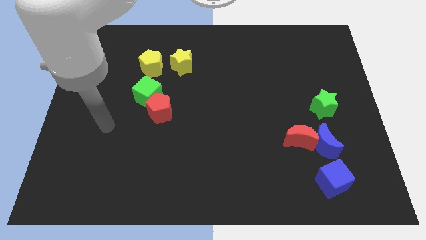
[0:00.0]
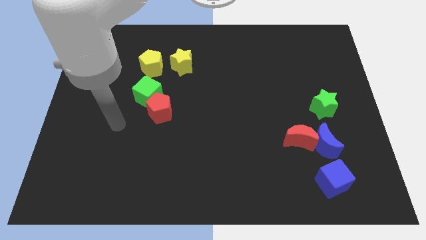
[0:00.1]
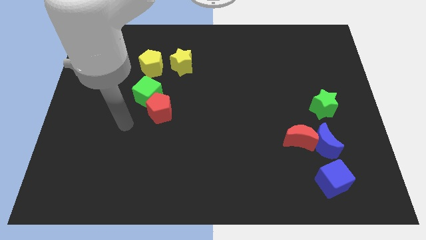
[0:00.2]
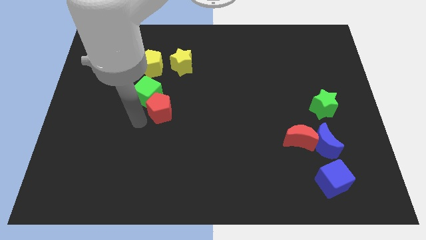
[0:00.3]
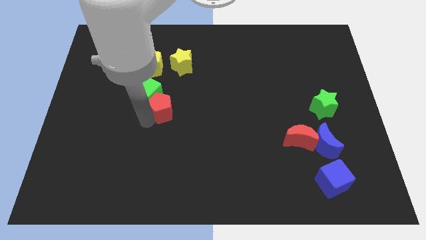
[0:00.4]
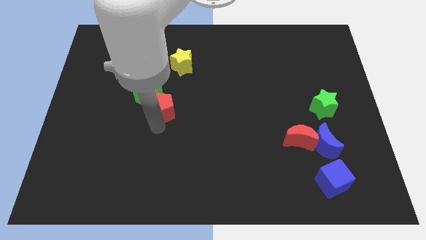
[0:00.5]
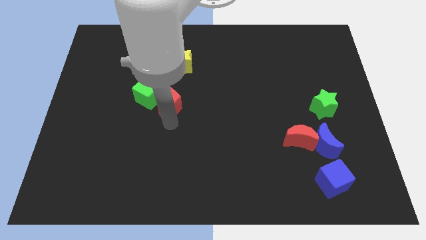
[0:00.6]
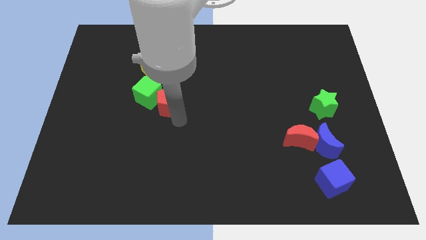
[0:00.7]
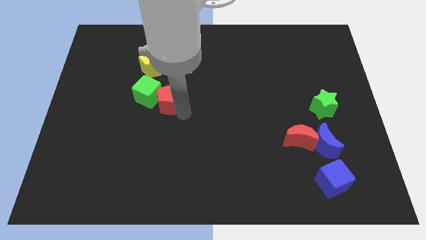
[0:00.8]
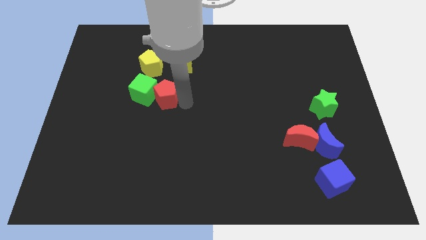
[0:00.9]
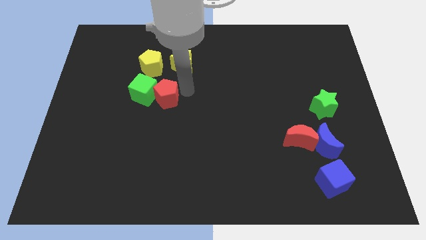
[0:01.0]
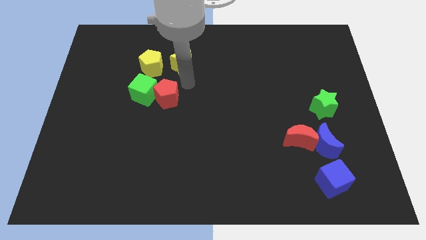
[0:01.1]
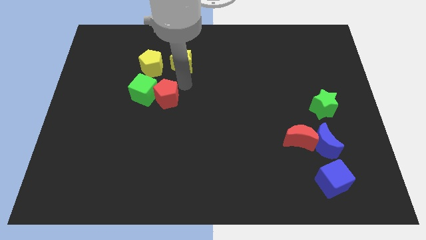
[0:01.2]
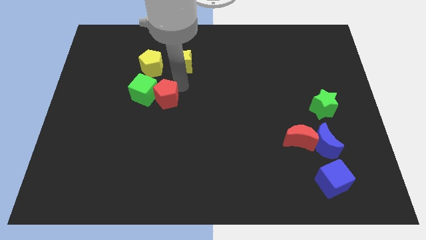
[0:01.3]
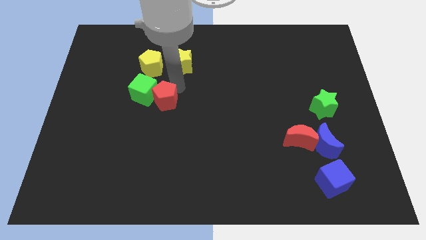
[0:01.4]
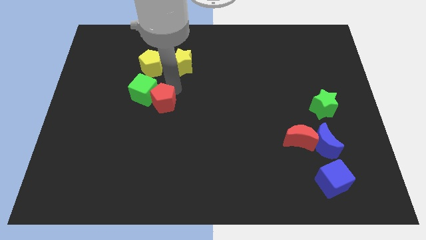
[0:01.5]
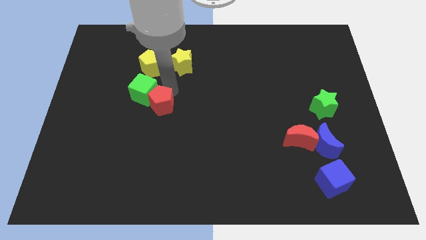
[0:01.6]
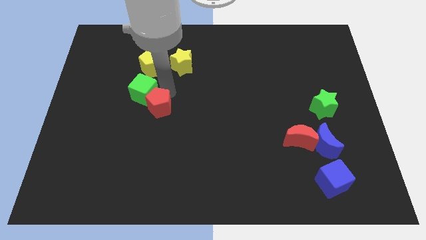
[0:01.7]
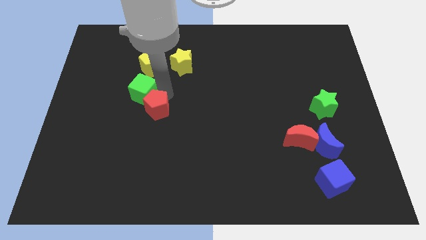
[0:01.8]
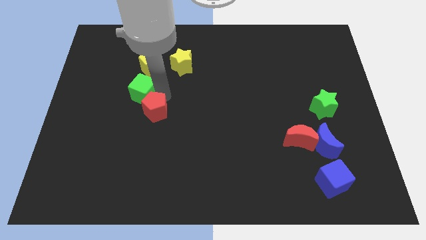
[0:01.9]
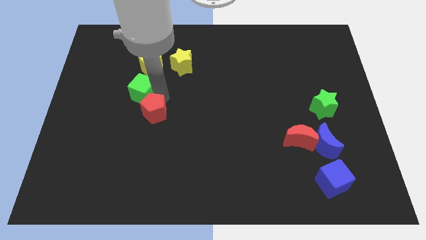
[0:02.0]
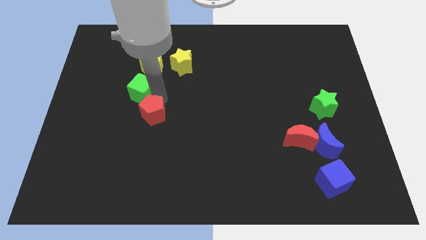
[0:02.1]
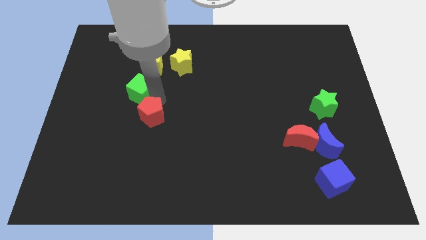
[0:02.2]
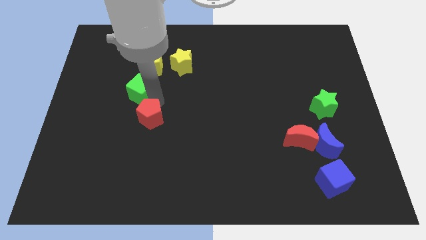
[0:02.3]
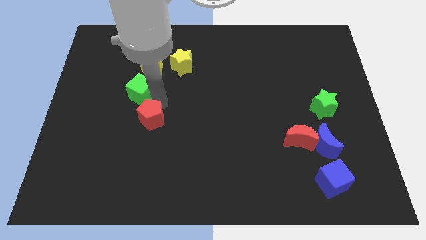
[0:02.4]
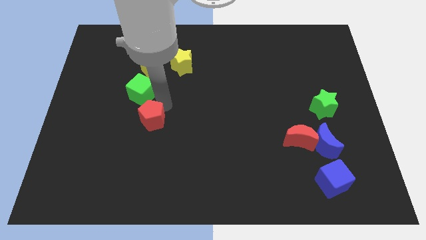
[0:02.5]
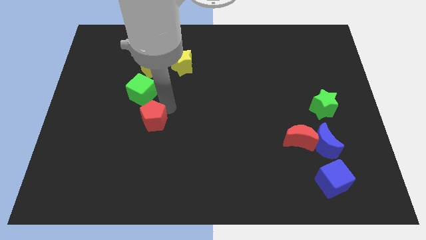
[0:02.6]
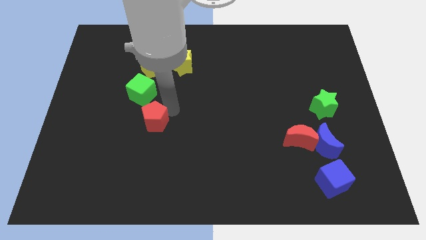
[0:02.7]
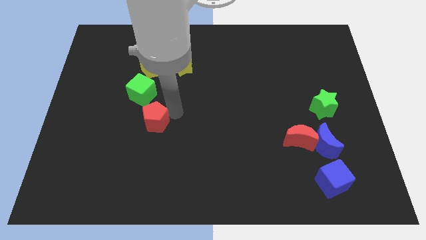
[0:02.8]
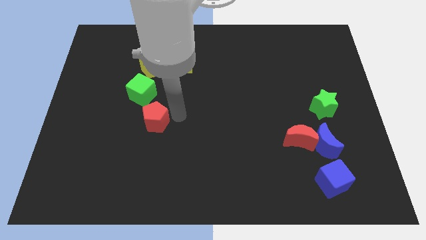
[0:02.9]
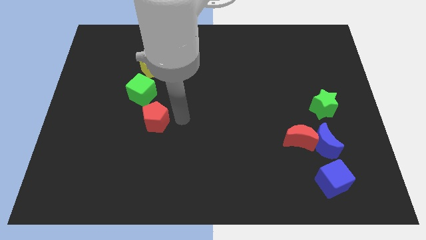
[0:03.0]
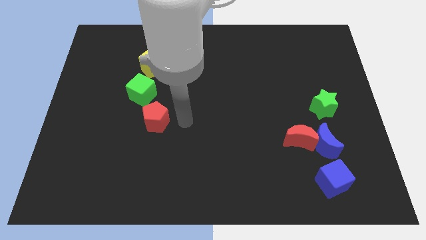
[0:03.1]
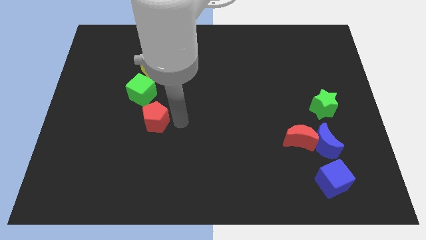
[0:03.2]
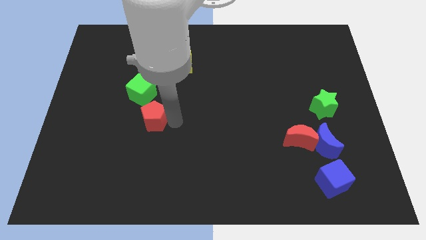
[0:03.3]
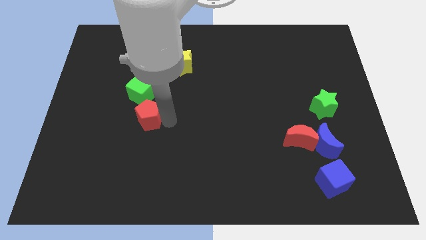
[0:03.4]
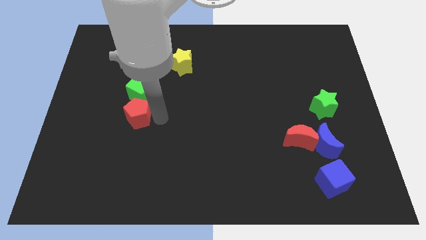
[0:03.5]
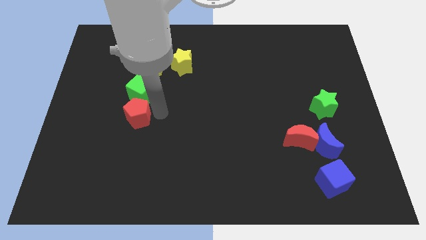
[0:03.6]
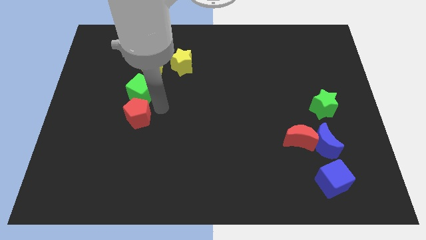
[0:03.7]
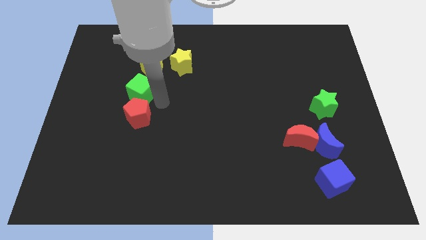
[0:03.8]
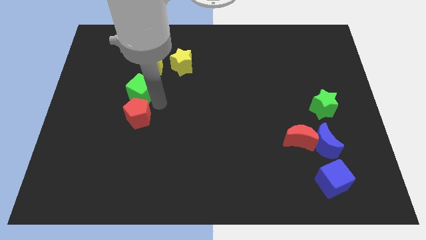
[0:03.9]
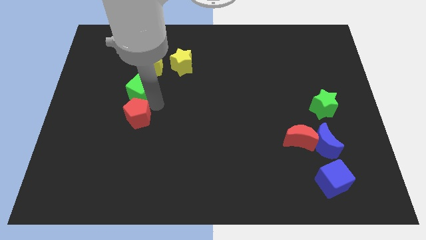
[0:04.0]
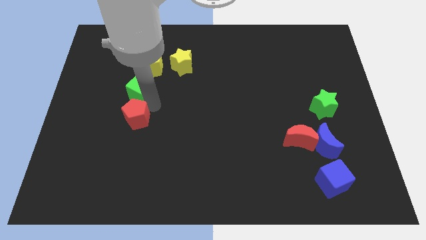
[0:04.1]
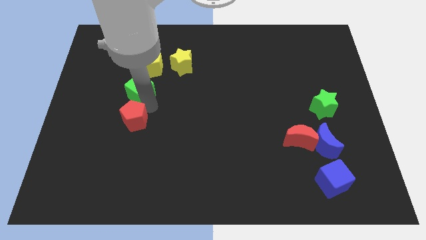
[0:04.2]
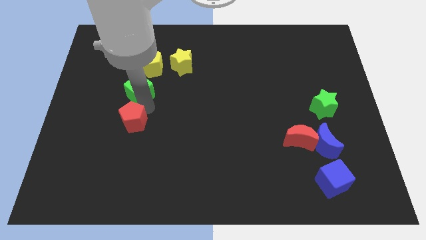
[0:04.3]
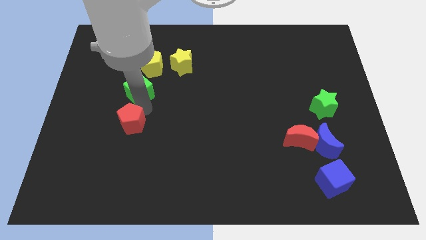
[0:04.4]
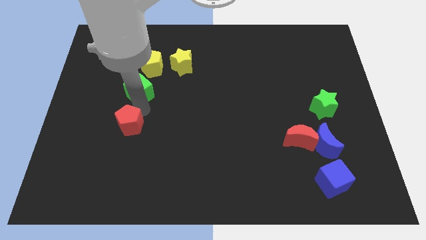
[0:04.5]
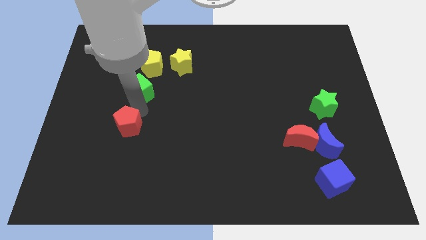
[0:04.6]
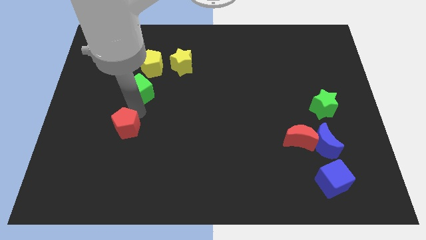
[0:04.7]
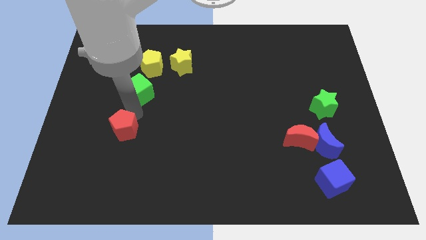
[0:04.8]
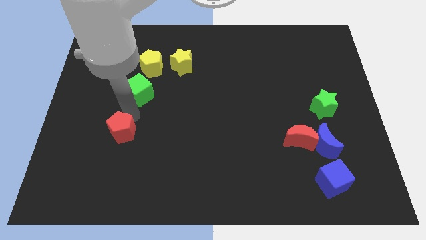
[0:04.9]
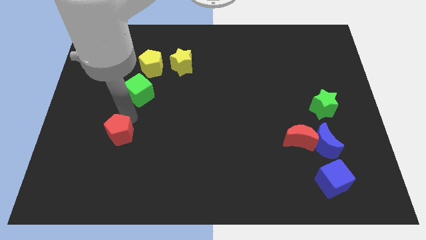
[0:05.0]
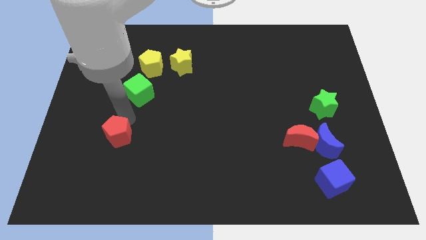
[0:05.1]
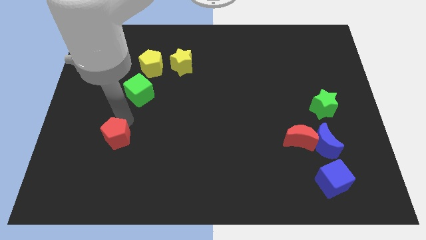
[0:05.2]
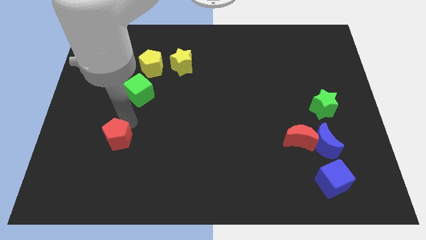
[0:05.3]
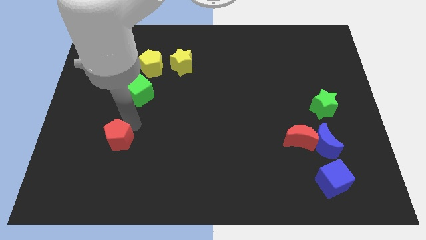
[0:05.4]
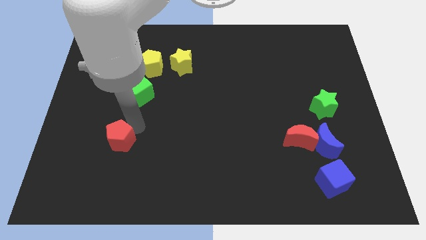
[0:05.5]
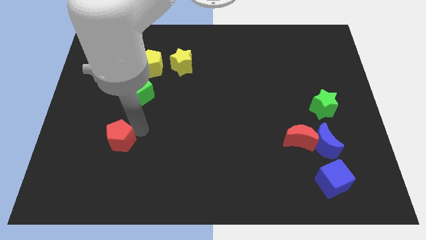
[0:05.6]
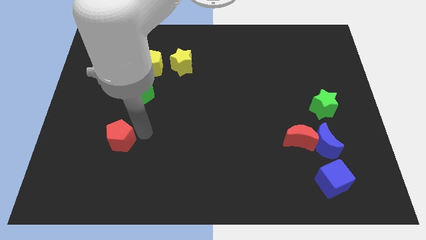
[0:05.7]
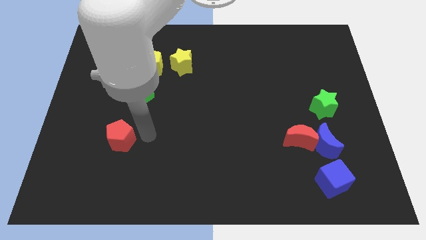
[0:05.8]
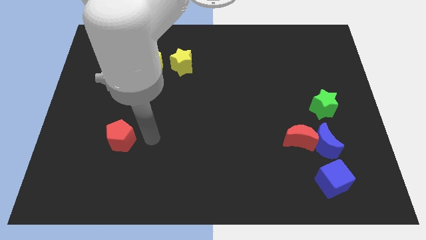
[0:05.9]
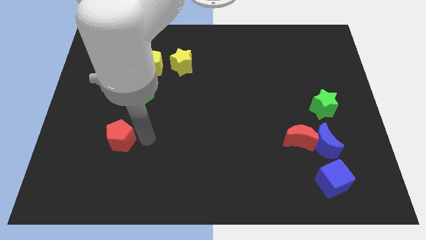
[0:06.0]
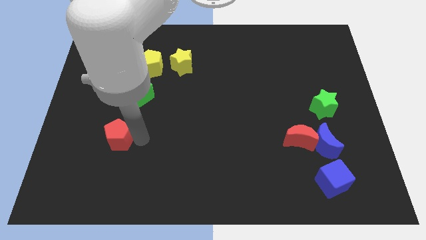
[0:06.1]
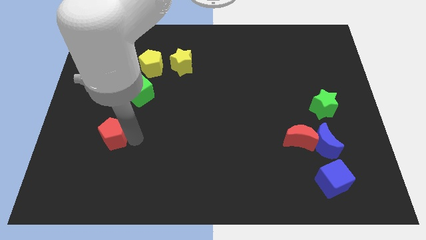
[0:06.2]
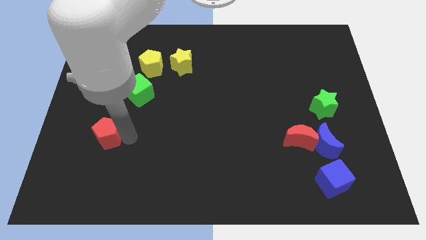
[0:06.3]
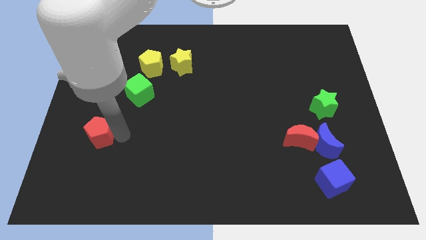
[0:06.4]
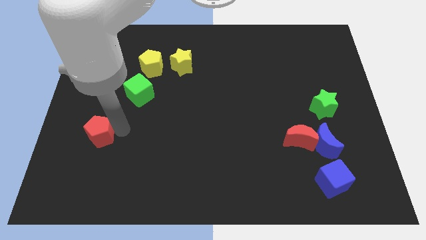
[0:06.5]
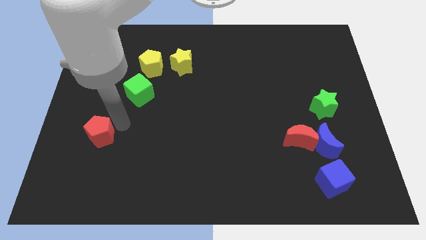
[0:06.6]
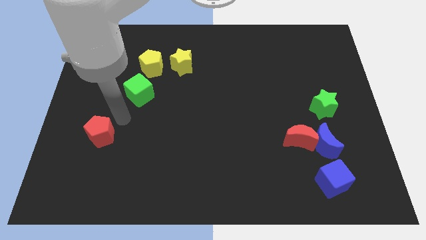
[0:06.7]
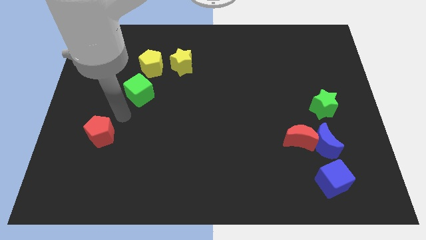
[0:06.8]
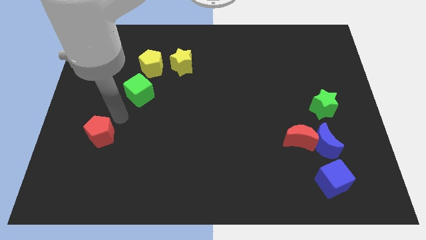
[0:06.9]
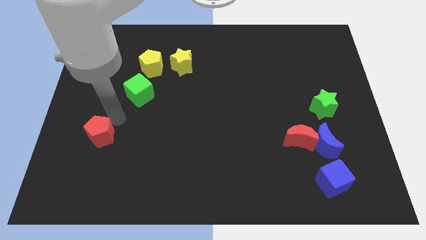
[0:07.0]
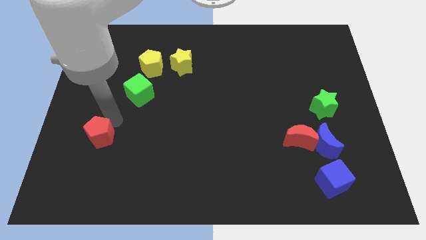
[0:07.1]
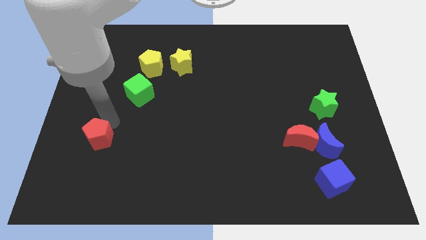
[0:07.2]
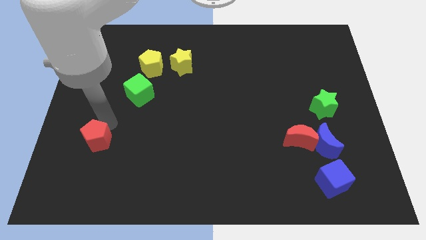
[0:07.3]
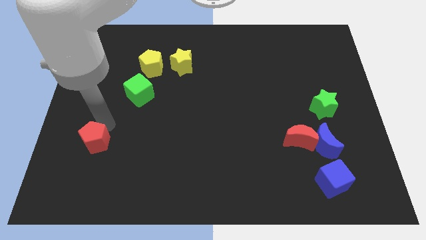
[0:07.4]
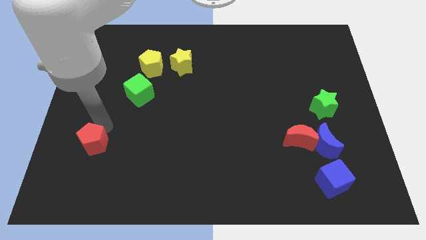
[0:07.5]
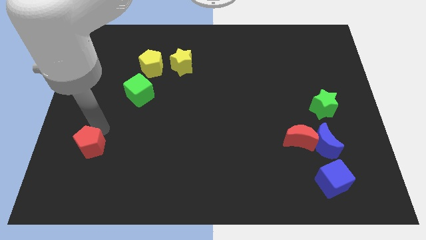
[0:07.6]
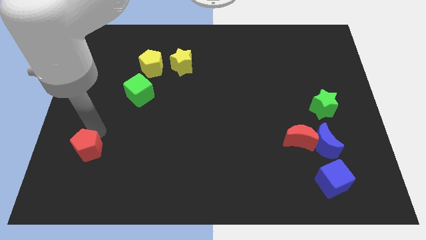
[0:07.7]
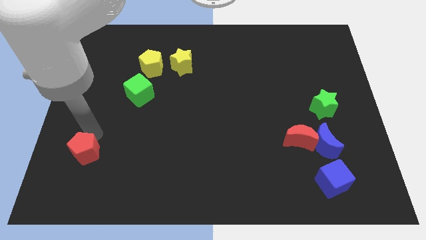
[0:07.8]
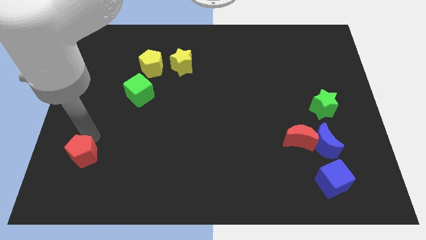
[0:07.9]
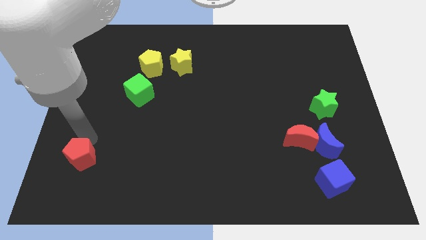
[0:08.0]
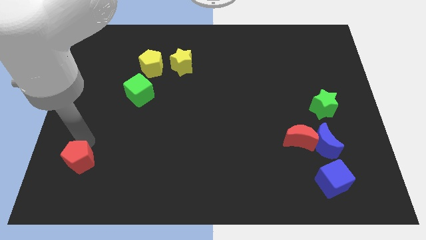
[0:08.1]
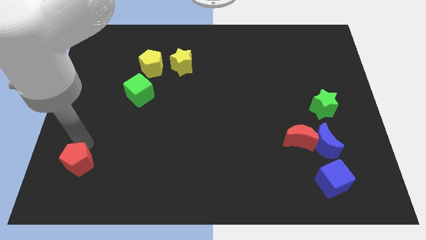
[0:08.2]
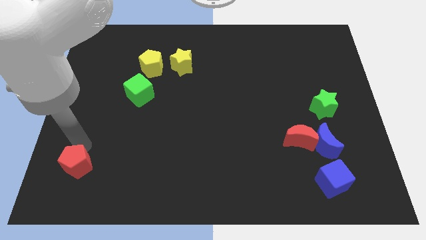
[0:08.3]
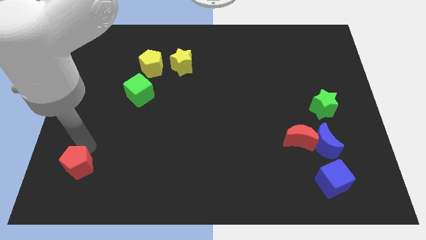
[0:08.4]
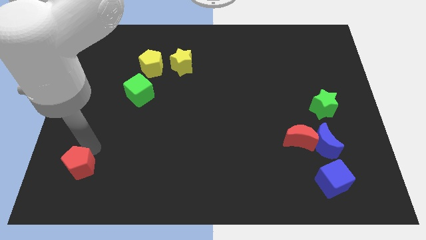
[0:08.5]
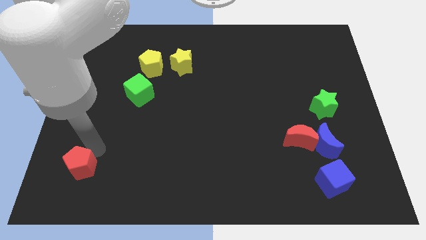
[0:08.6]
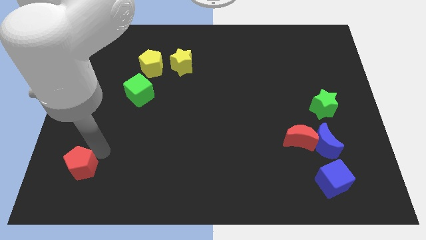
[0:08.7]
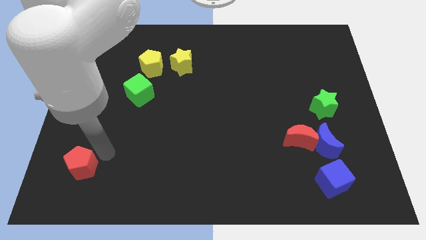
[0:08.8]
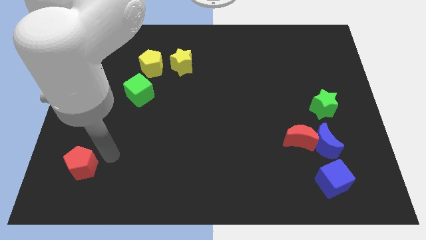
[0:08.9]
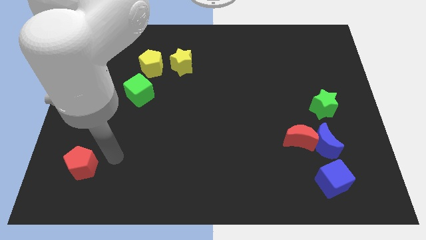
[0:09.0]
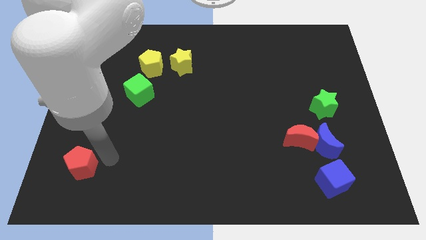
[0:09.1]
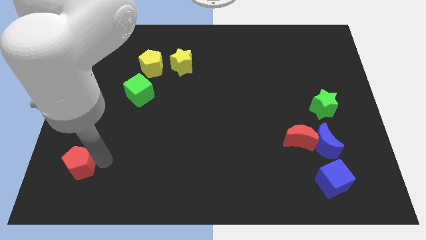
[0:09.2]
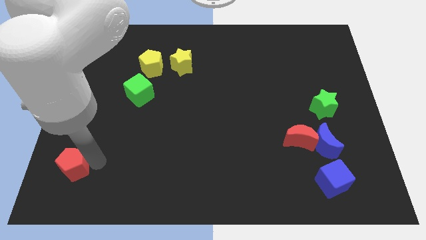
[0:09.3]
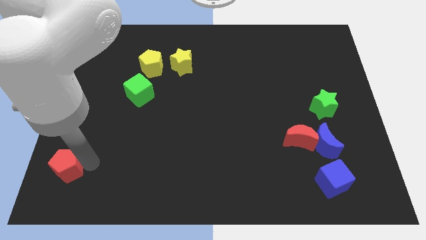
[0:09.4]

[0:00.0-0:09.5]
put the red pentagon to the bottom left
